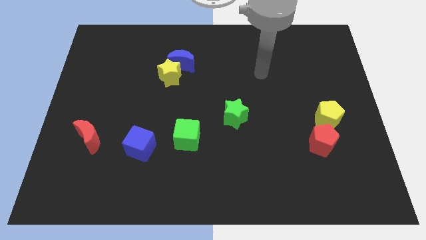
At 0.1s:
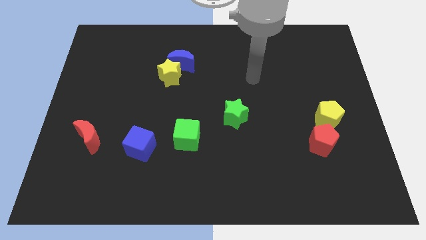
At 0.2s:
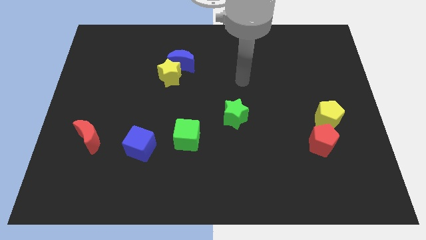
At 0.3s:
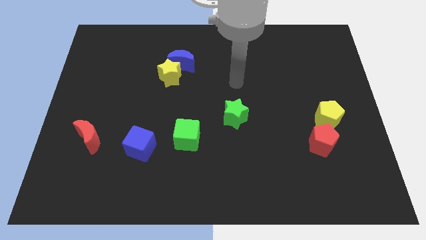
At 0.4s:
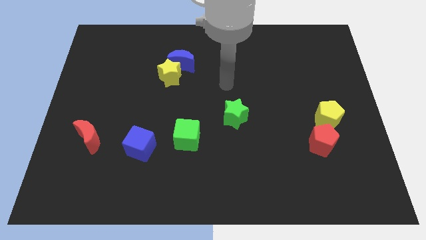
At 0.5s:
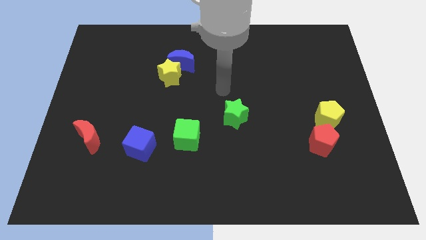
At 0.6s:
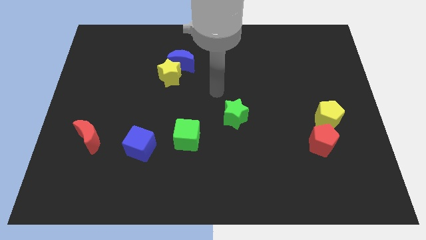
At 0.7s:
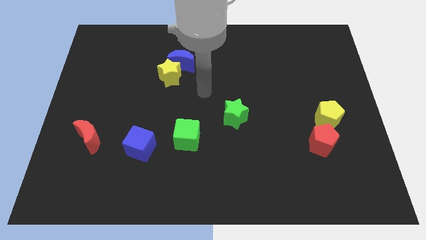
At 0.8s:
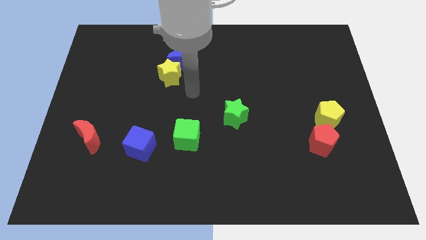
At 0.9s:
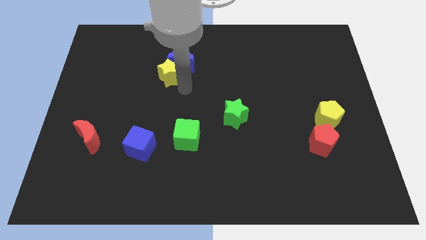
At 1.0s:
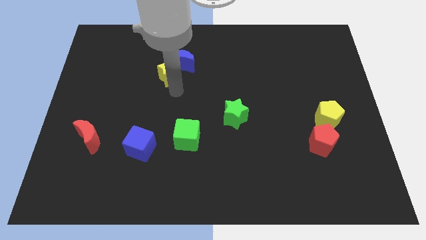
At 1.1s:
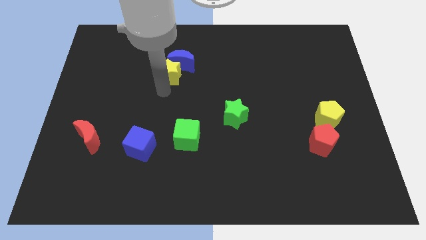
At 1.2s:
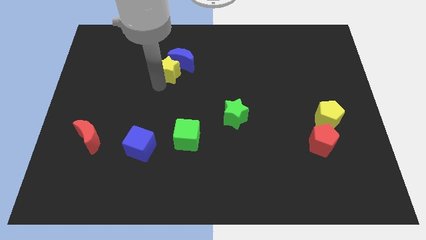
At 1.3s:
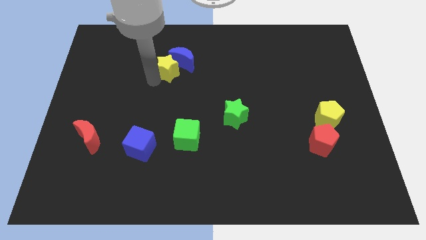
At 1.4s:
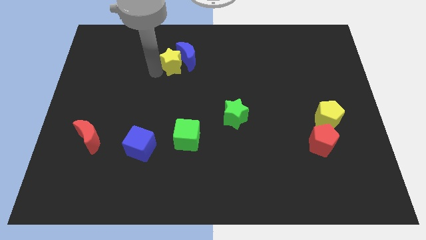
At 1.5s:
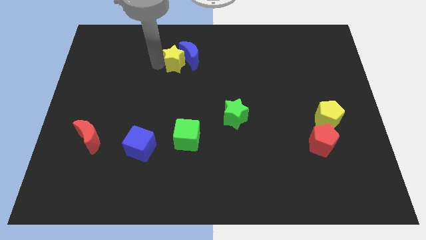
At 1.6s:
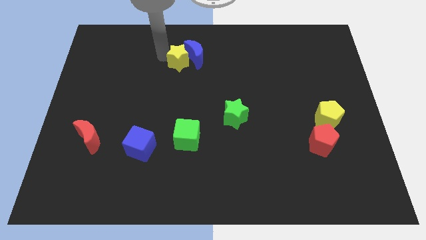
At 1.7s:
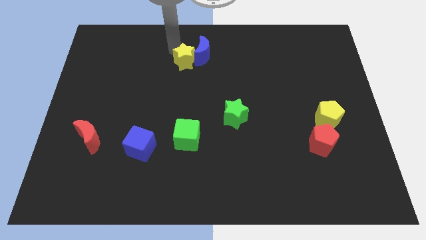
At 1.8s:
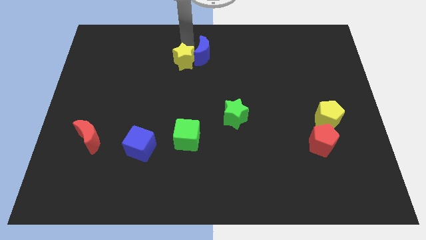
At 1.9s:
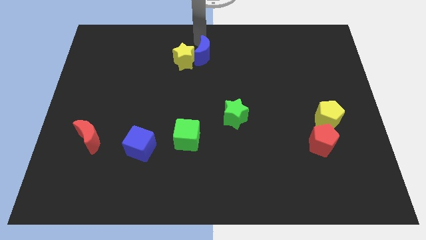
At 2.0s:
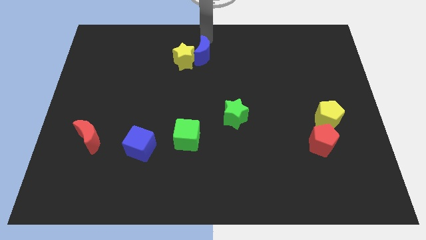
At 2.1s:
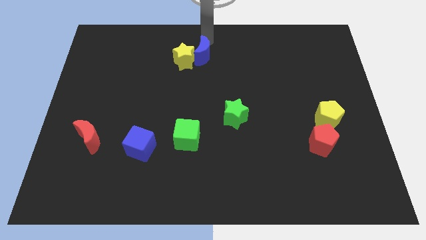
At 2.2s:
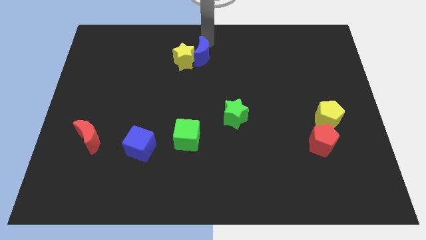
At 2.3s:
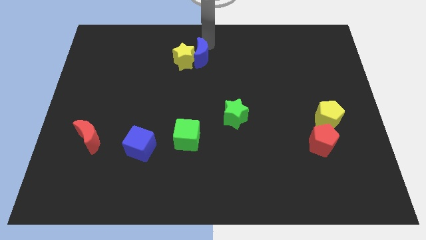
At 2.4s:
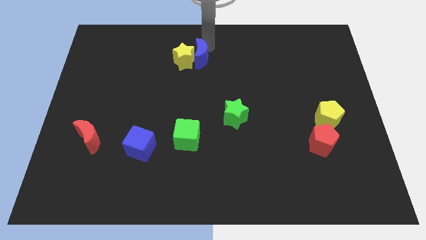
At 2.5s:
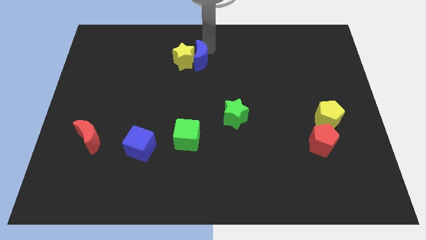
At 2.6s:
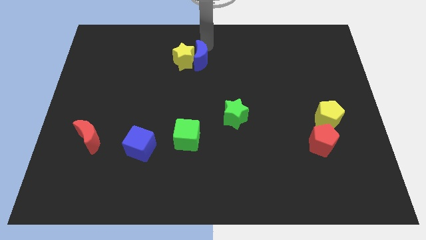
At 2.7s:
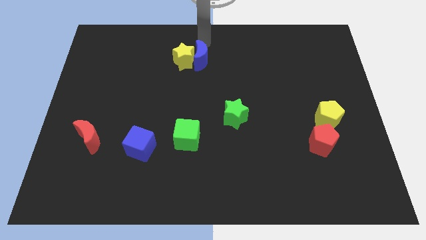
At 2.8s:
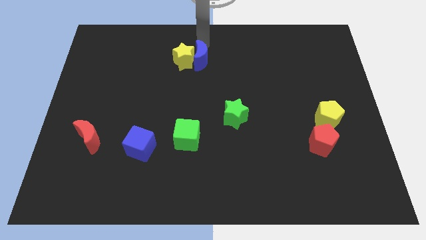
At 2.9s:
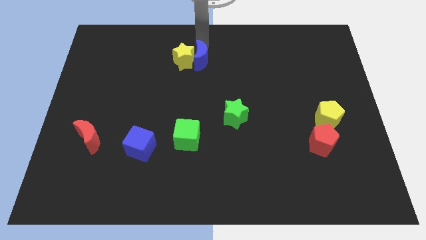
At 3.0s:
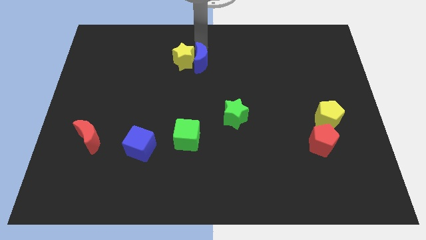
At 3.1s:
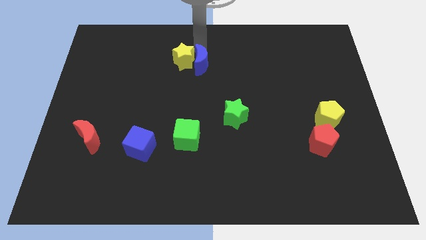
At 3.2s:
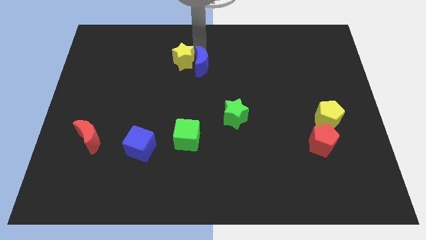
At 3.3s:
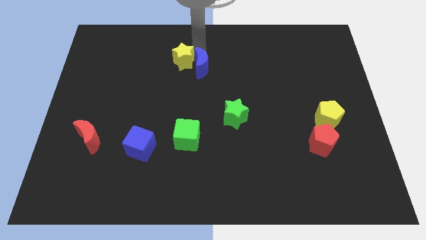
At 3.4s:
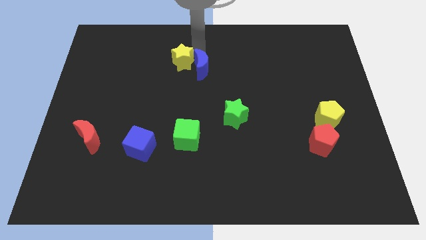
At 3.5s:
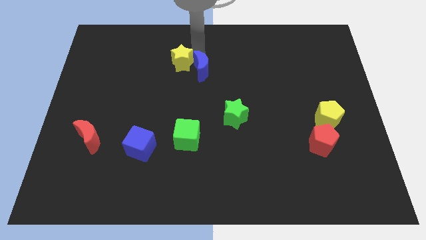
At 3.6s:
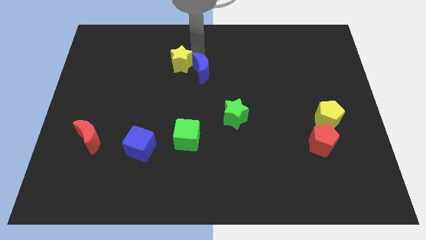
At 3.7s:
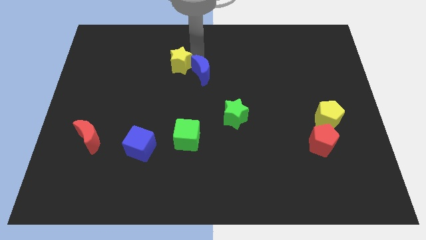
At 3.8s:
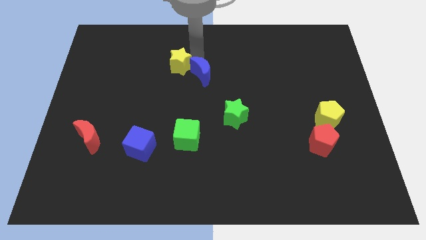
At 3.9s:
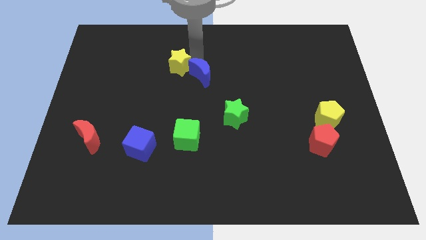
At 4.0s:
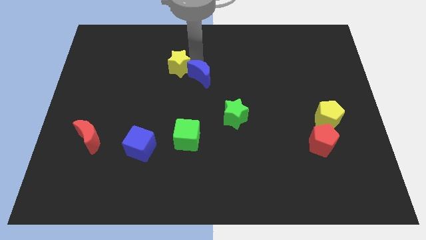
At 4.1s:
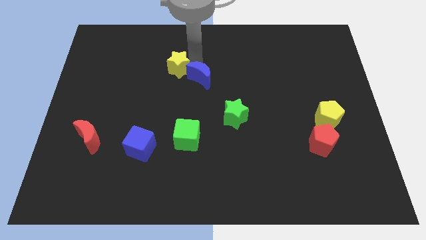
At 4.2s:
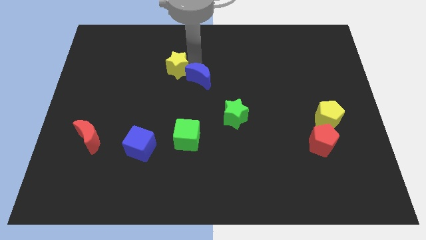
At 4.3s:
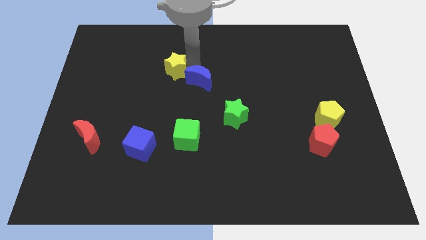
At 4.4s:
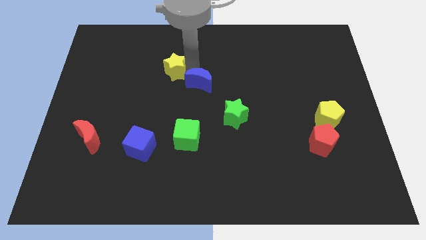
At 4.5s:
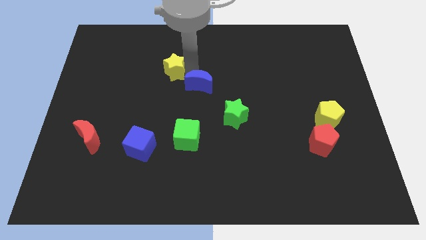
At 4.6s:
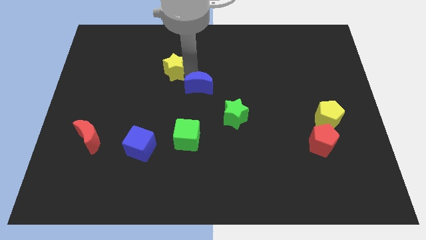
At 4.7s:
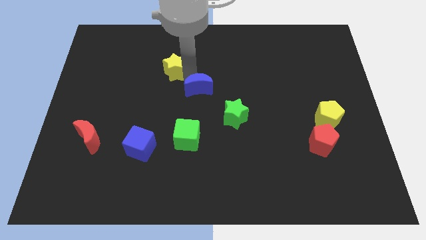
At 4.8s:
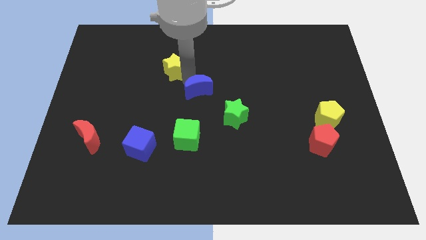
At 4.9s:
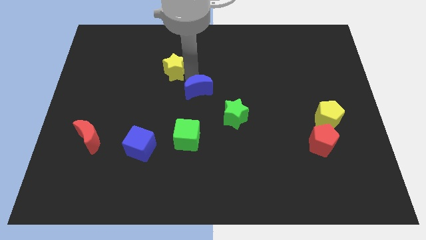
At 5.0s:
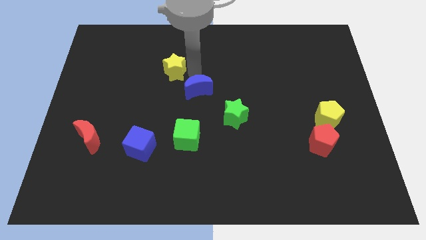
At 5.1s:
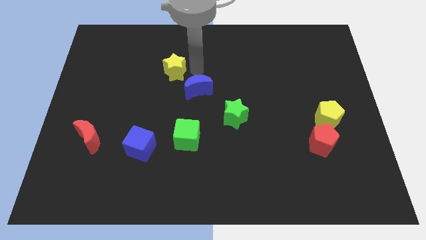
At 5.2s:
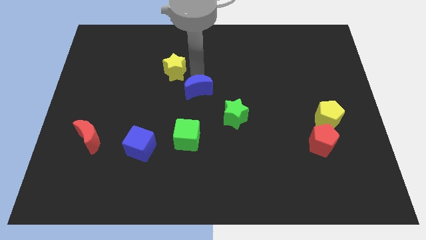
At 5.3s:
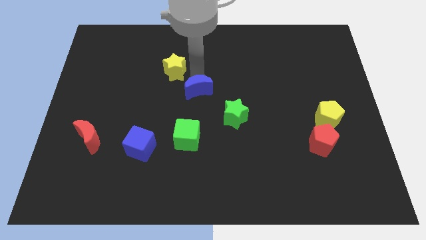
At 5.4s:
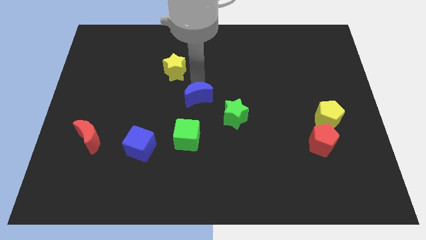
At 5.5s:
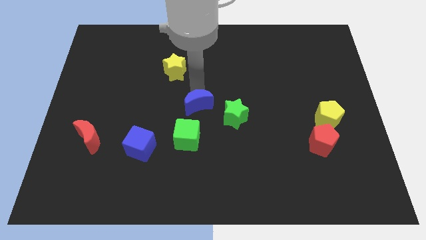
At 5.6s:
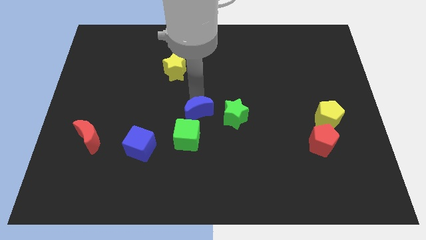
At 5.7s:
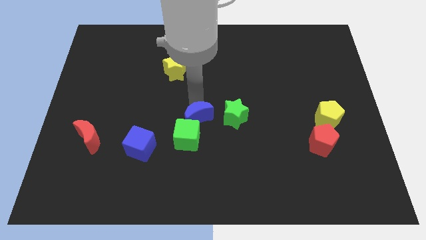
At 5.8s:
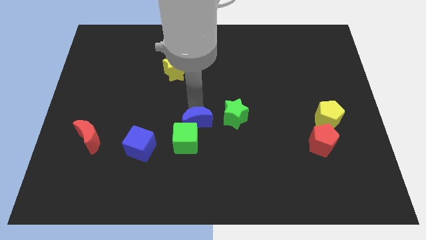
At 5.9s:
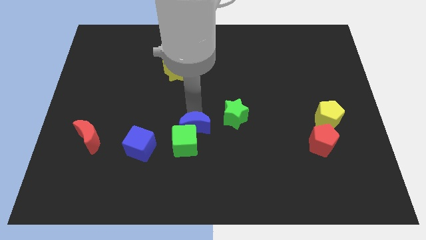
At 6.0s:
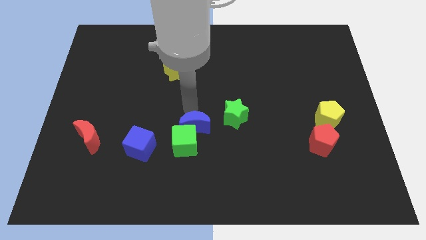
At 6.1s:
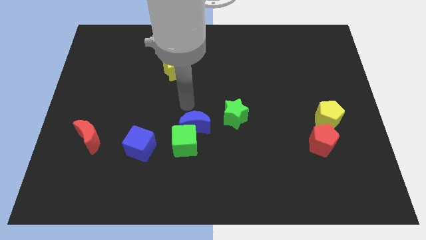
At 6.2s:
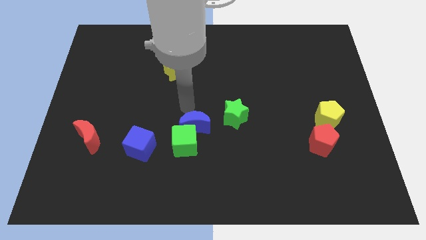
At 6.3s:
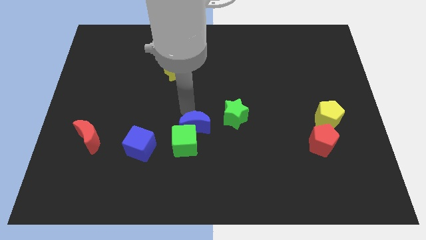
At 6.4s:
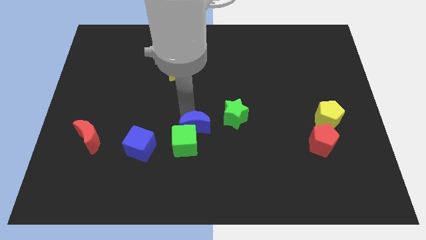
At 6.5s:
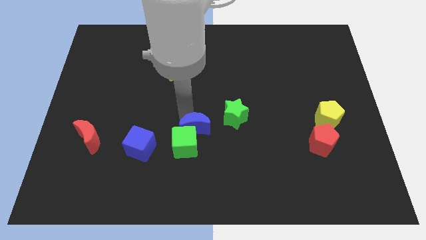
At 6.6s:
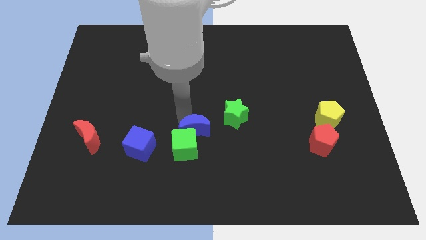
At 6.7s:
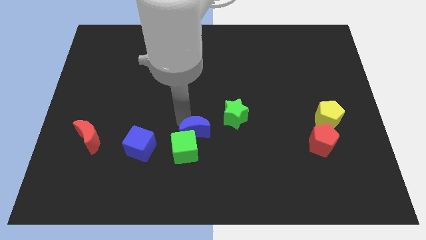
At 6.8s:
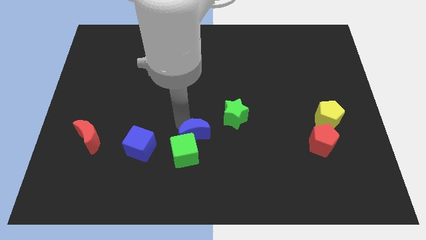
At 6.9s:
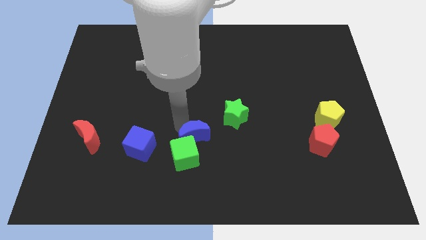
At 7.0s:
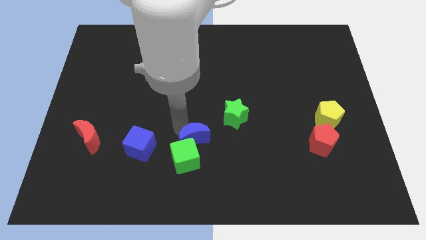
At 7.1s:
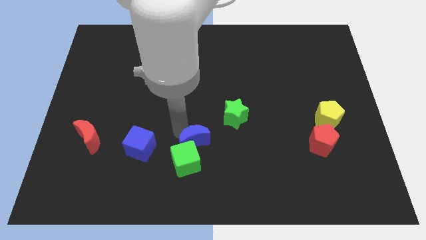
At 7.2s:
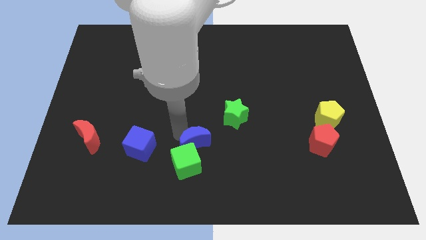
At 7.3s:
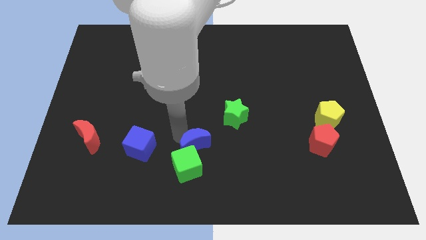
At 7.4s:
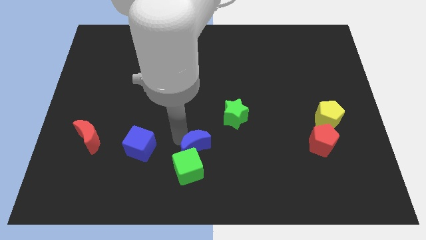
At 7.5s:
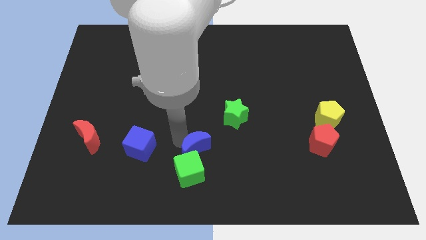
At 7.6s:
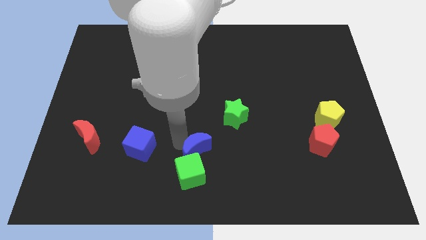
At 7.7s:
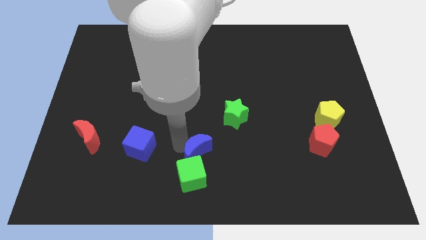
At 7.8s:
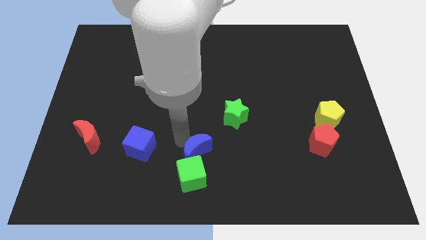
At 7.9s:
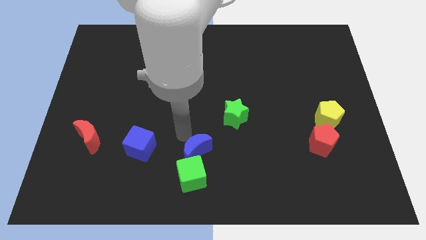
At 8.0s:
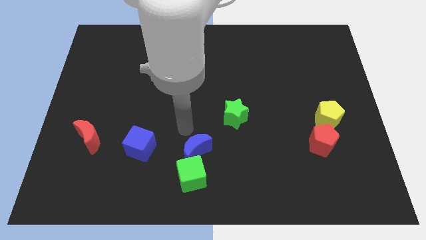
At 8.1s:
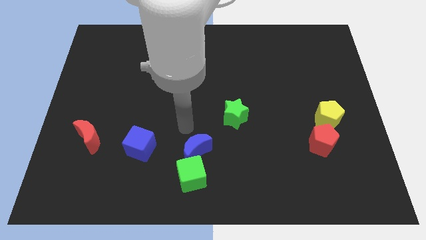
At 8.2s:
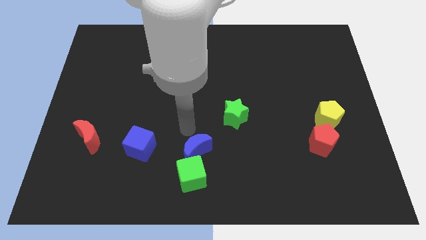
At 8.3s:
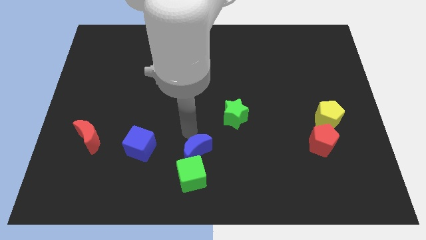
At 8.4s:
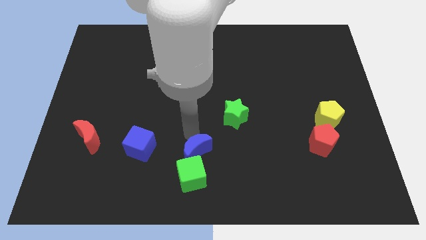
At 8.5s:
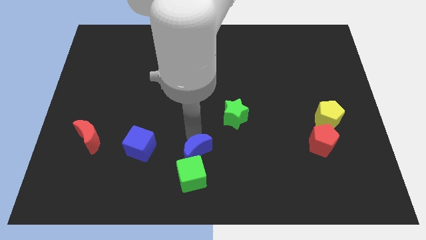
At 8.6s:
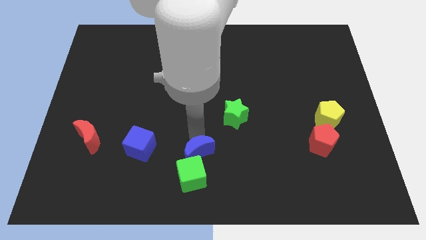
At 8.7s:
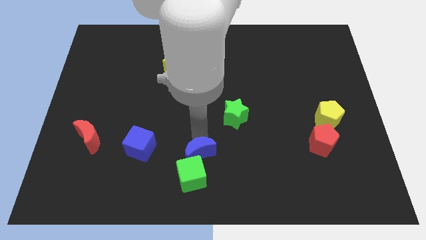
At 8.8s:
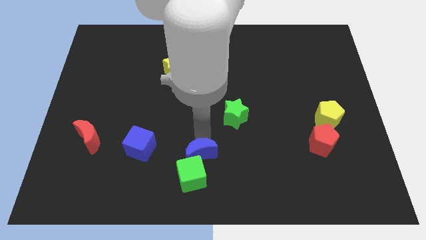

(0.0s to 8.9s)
move the blue moon to the bottom
